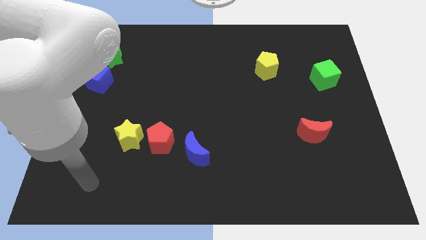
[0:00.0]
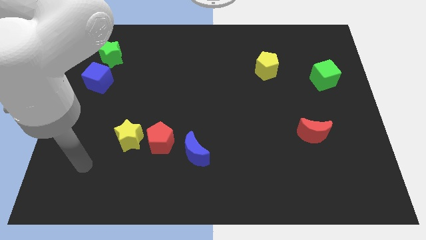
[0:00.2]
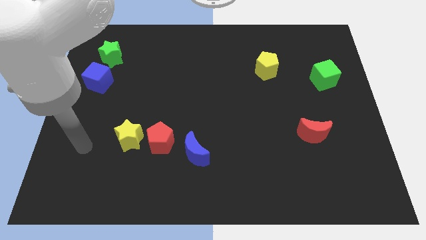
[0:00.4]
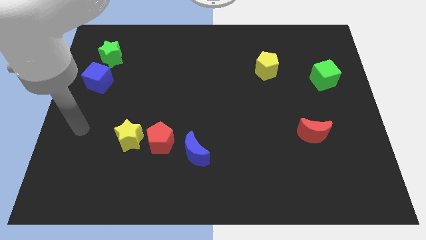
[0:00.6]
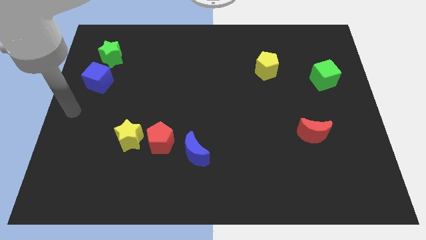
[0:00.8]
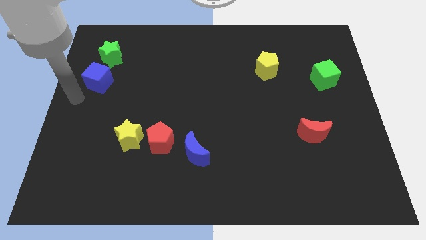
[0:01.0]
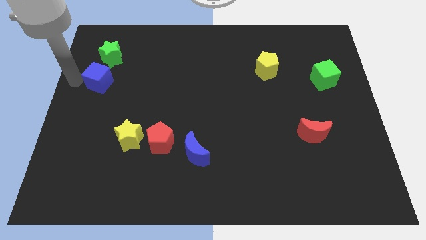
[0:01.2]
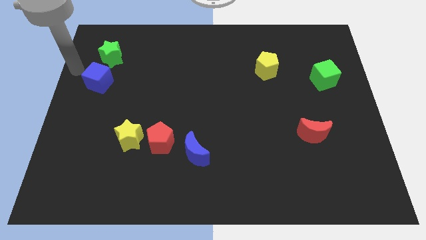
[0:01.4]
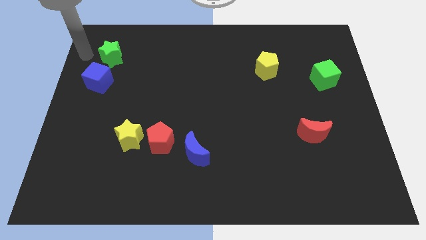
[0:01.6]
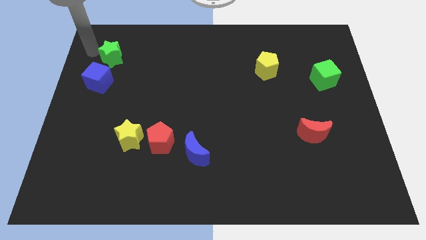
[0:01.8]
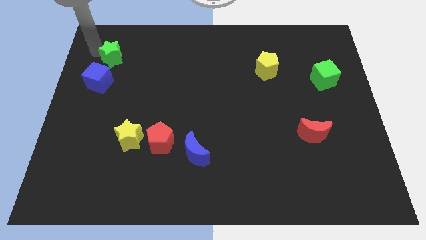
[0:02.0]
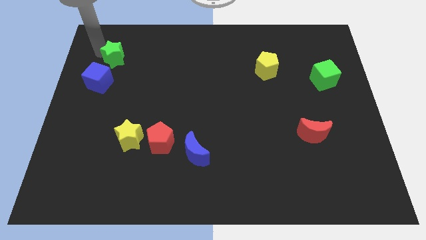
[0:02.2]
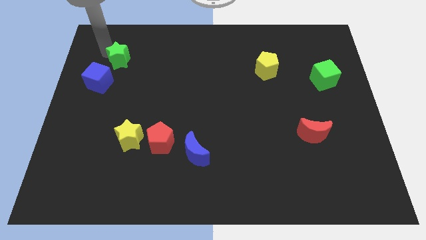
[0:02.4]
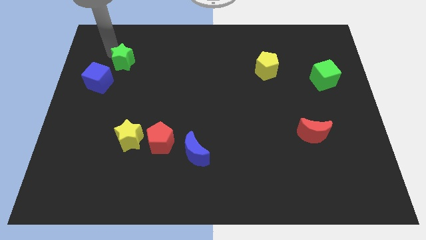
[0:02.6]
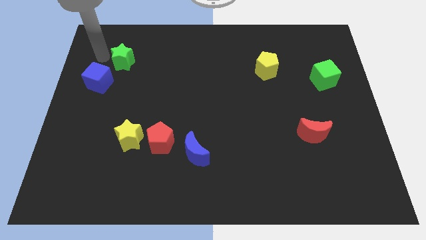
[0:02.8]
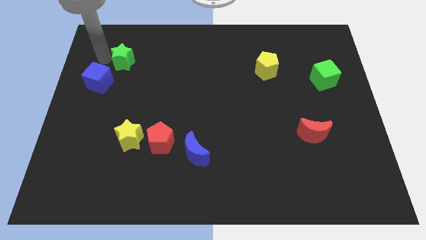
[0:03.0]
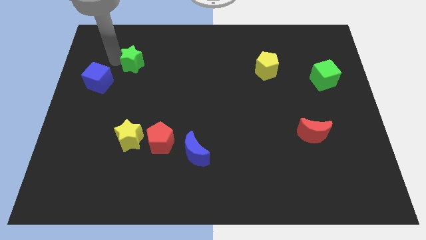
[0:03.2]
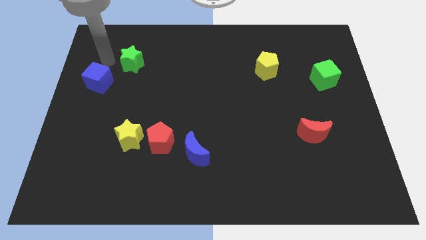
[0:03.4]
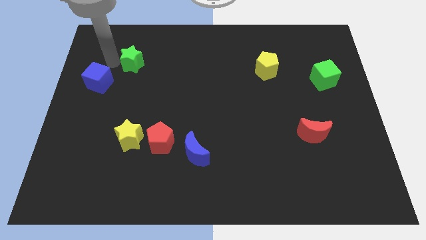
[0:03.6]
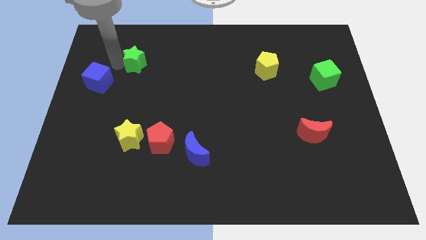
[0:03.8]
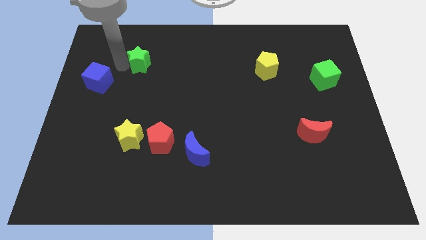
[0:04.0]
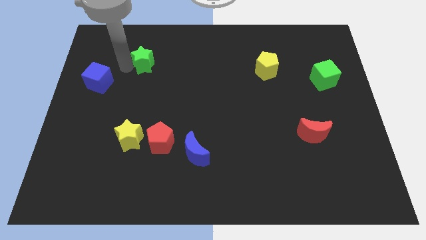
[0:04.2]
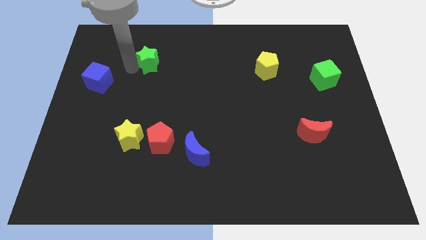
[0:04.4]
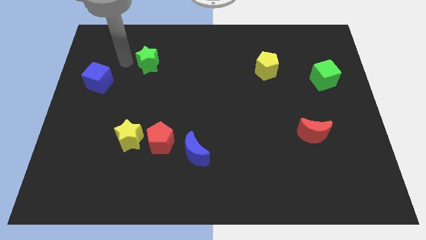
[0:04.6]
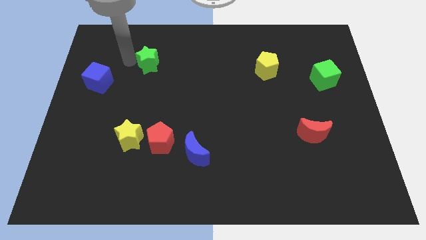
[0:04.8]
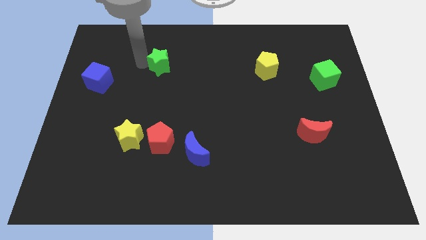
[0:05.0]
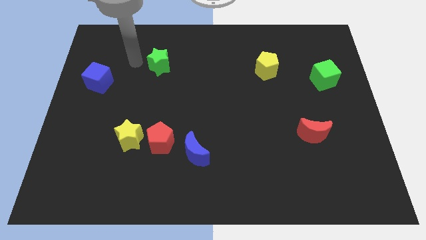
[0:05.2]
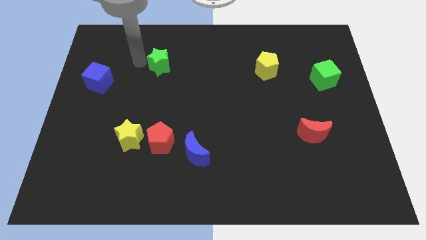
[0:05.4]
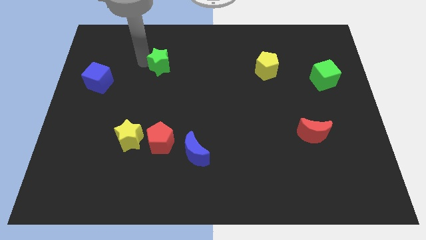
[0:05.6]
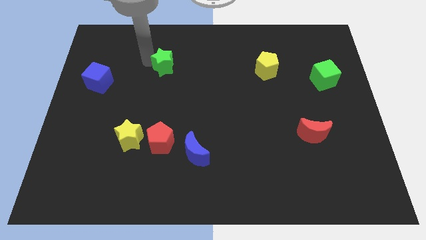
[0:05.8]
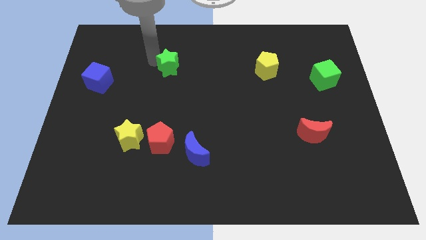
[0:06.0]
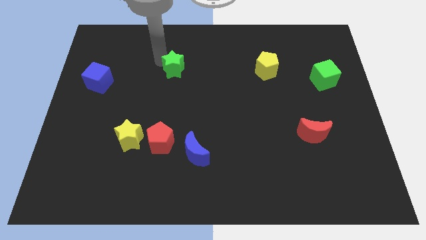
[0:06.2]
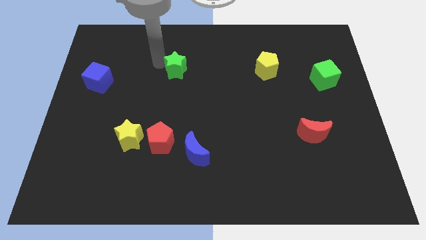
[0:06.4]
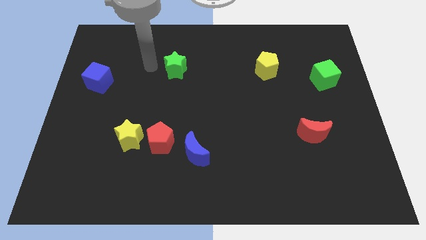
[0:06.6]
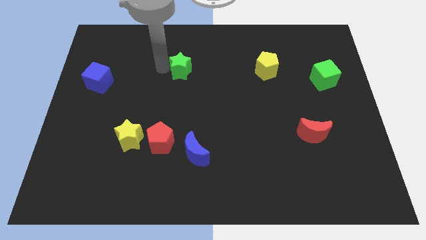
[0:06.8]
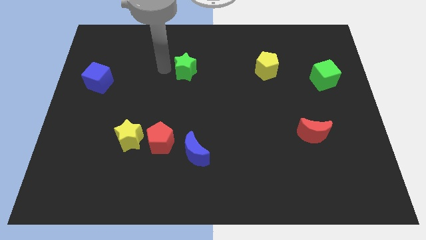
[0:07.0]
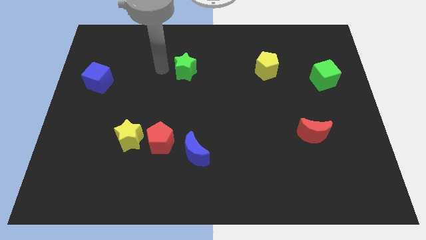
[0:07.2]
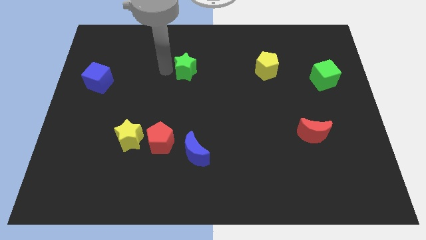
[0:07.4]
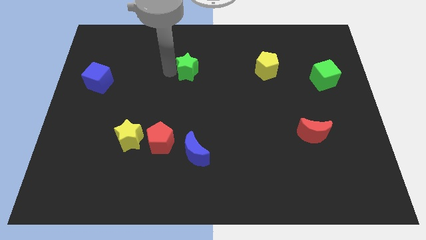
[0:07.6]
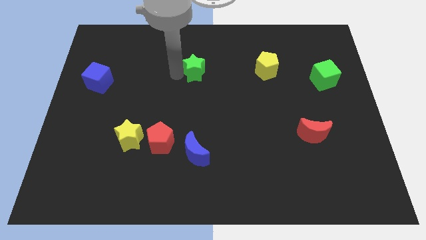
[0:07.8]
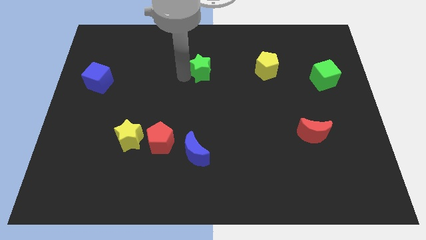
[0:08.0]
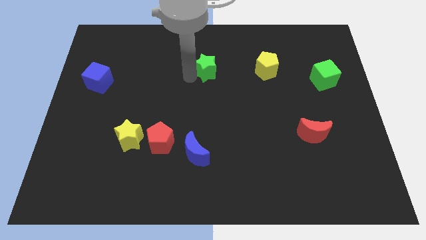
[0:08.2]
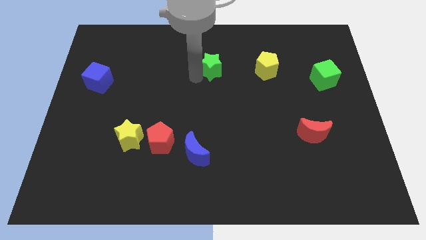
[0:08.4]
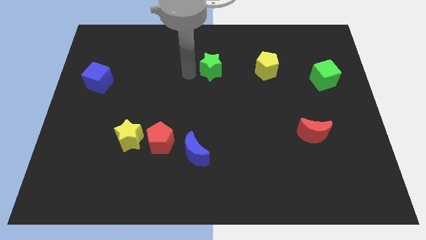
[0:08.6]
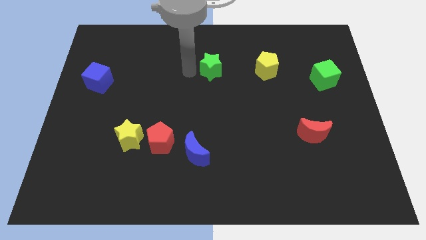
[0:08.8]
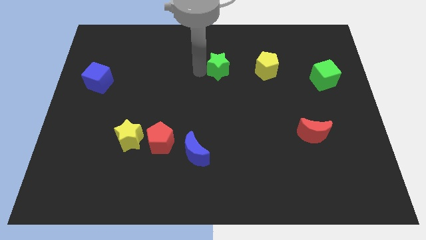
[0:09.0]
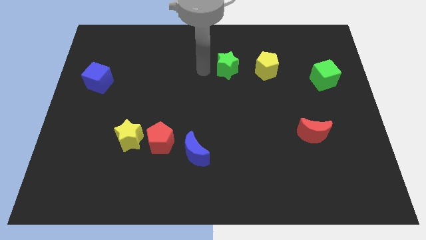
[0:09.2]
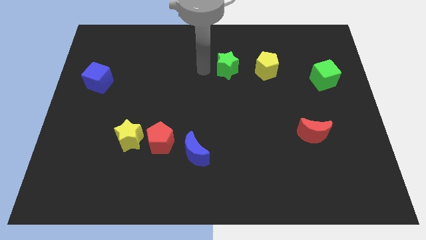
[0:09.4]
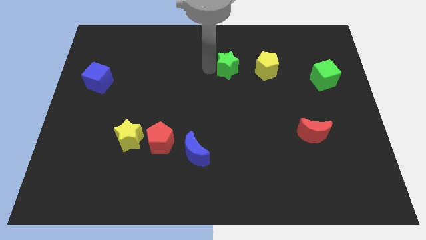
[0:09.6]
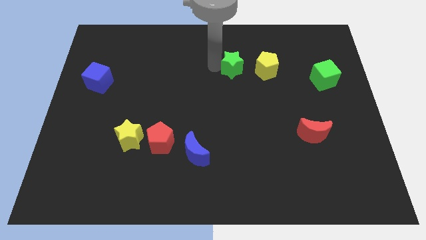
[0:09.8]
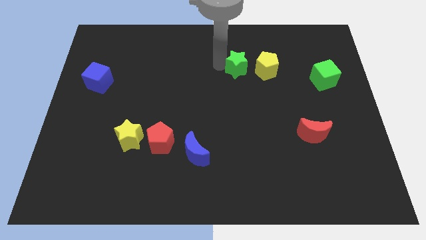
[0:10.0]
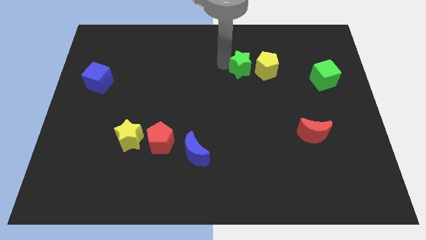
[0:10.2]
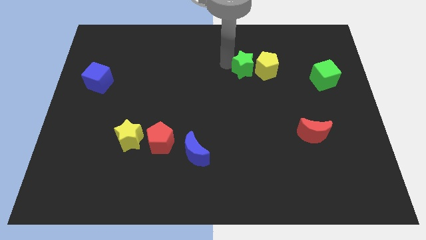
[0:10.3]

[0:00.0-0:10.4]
move the green star to the yellow pentagon

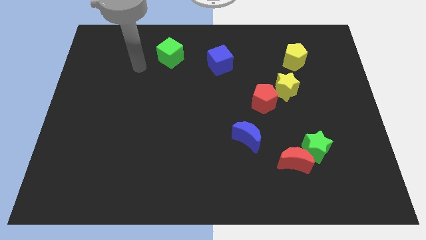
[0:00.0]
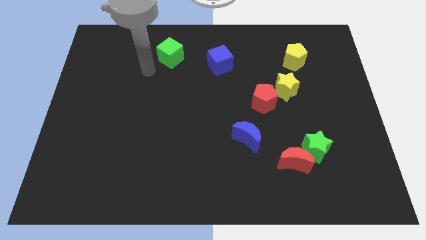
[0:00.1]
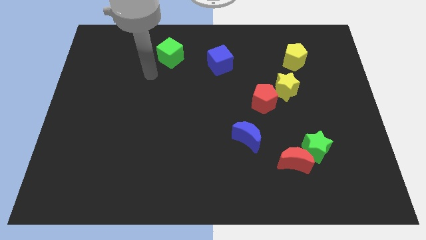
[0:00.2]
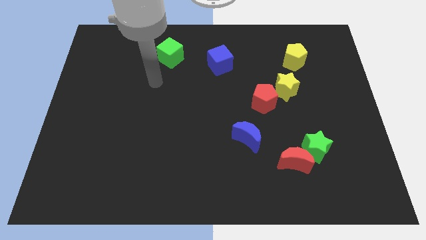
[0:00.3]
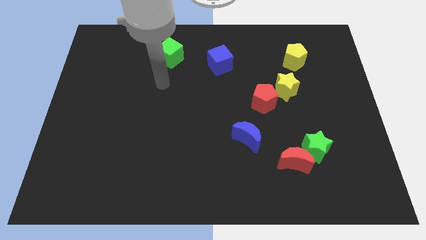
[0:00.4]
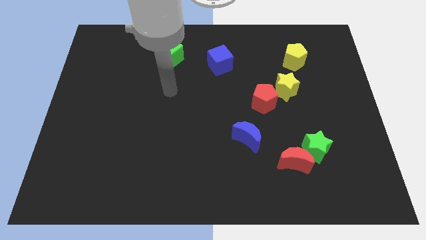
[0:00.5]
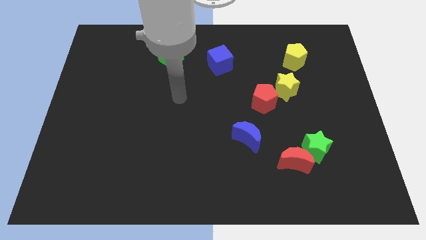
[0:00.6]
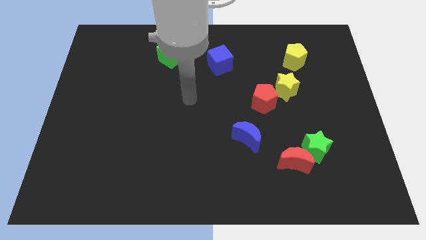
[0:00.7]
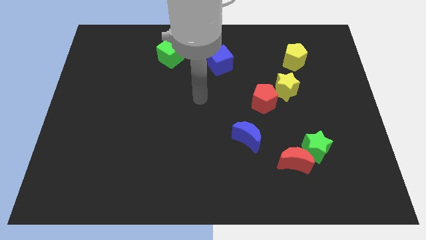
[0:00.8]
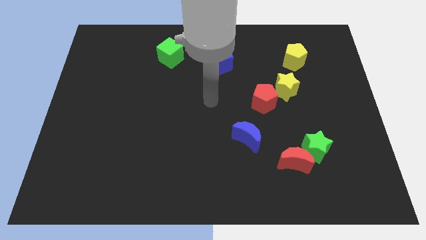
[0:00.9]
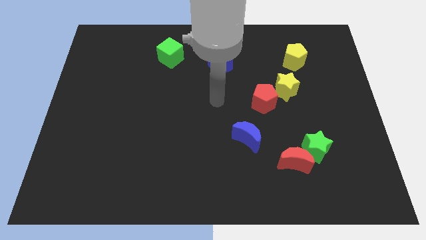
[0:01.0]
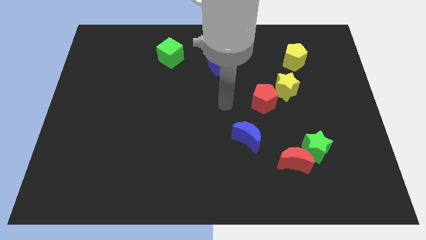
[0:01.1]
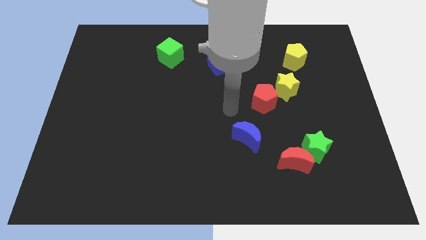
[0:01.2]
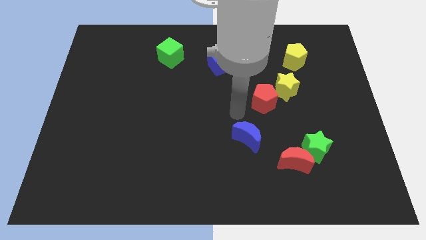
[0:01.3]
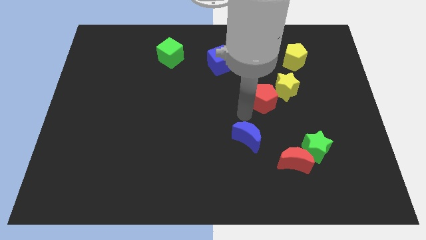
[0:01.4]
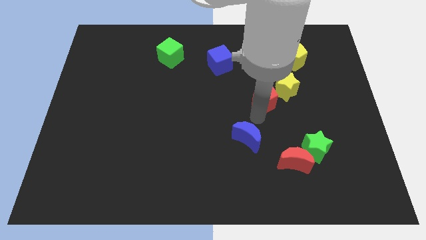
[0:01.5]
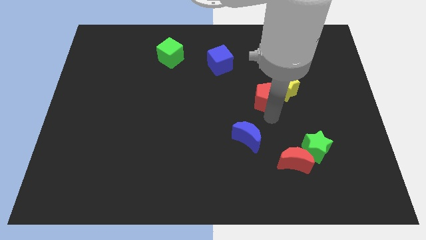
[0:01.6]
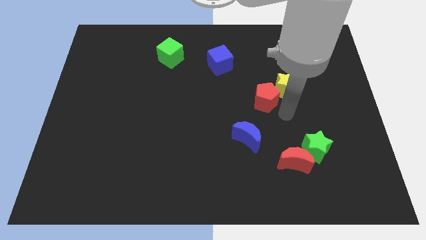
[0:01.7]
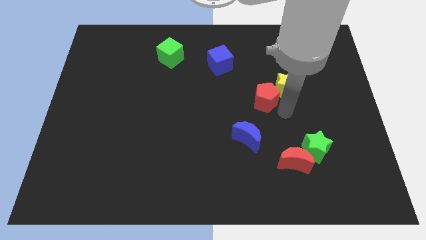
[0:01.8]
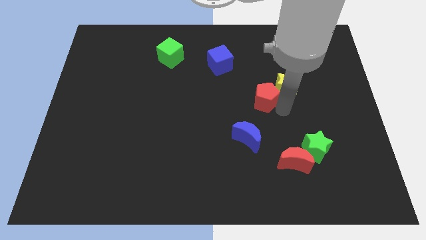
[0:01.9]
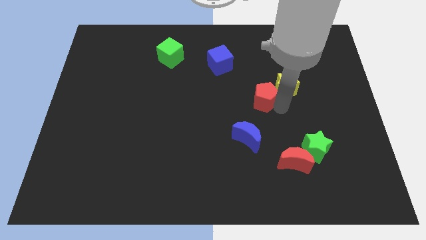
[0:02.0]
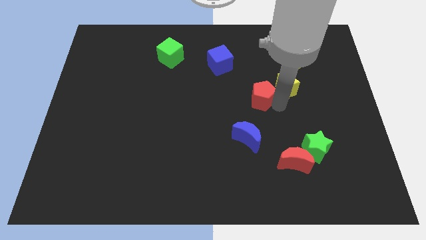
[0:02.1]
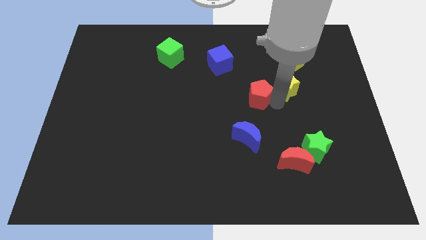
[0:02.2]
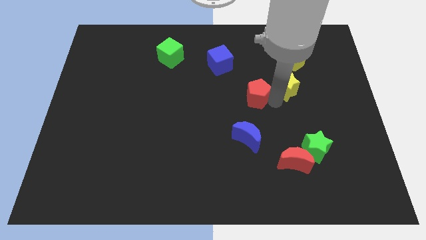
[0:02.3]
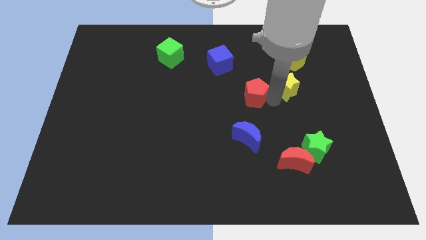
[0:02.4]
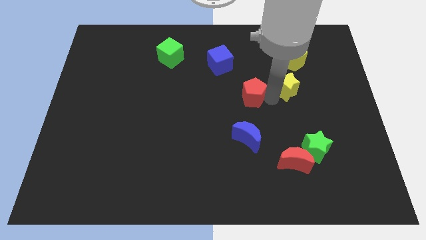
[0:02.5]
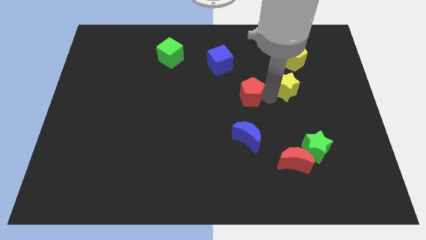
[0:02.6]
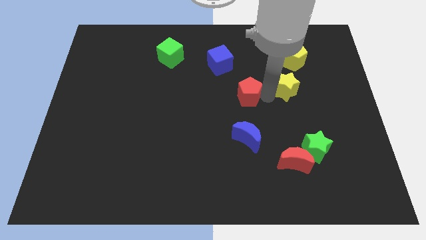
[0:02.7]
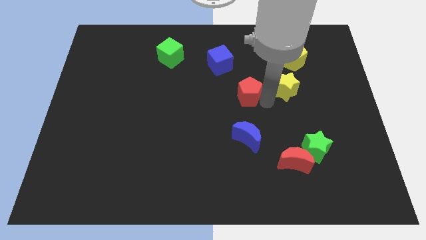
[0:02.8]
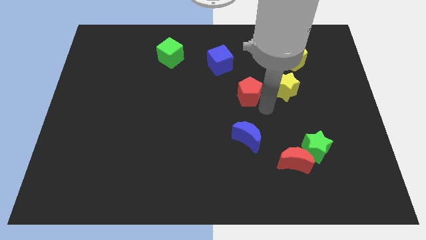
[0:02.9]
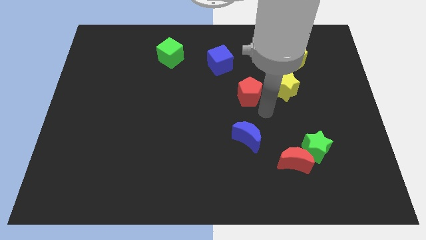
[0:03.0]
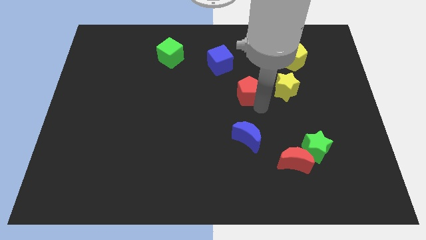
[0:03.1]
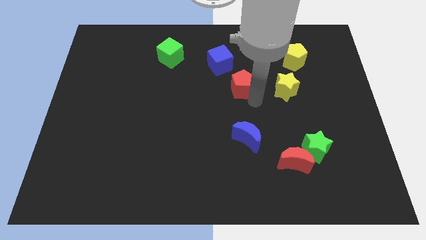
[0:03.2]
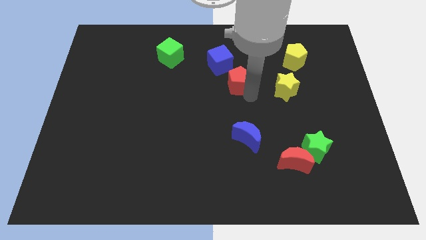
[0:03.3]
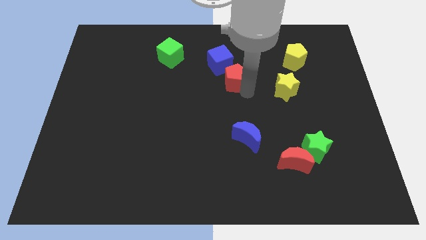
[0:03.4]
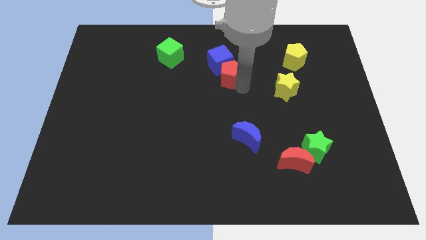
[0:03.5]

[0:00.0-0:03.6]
push the red pentagon close to the blue cube
